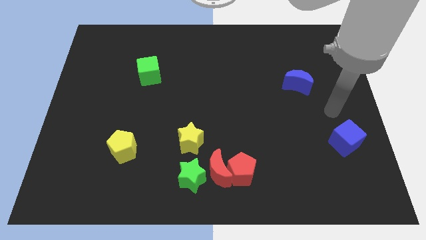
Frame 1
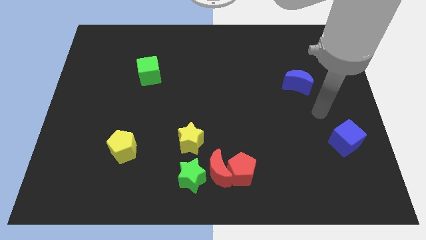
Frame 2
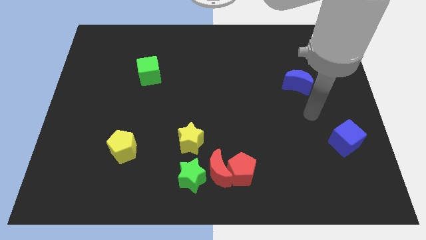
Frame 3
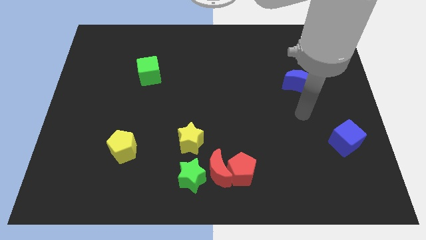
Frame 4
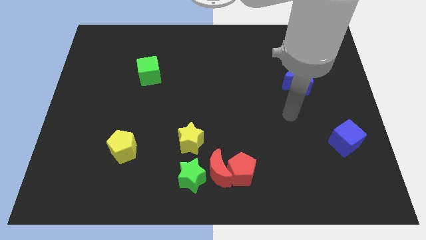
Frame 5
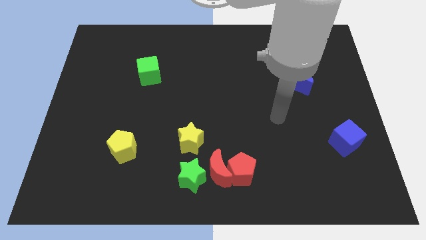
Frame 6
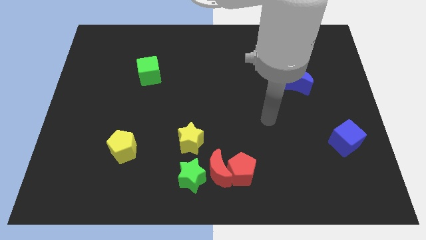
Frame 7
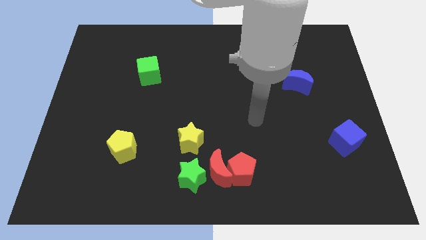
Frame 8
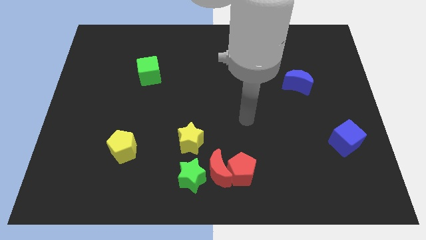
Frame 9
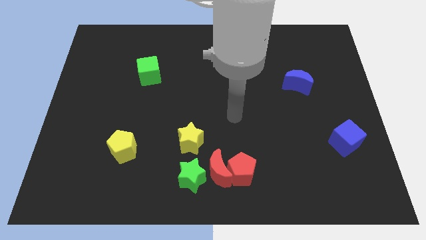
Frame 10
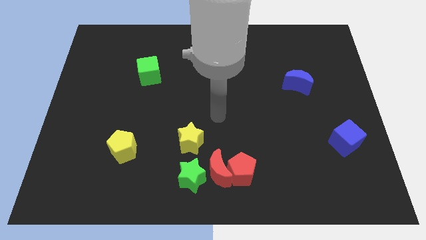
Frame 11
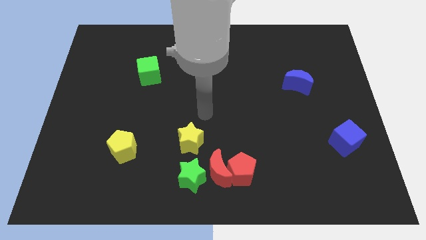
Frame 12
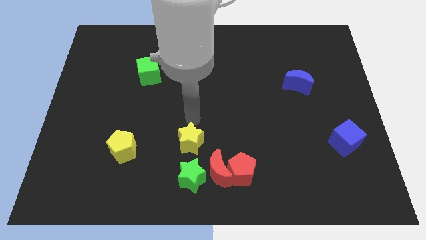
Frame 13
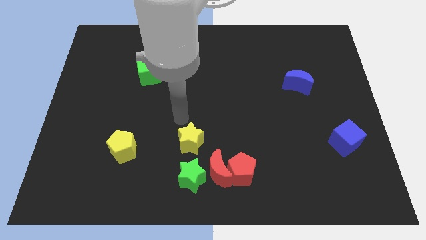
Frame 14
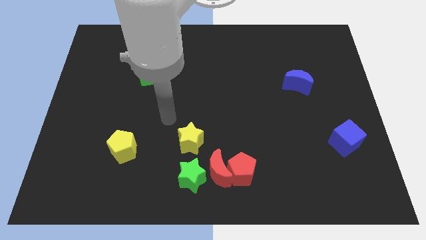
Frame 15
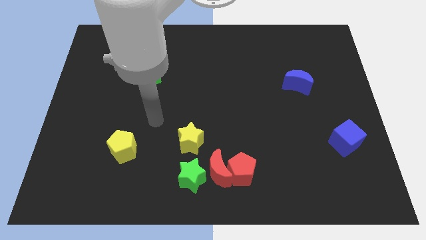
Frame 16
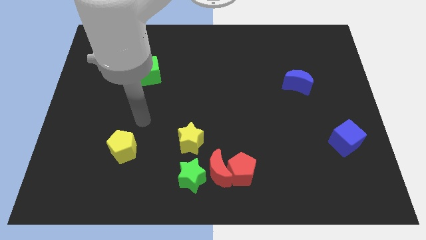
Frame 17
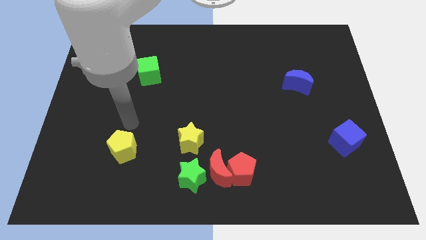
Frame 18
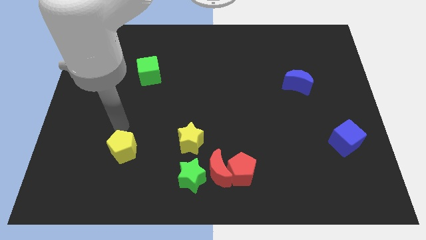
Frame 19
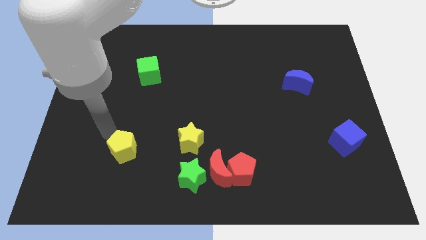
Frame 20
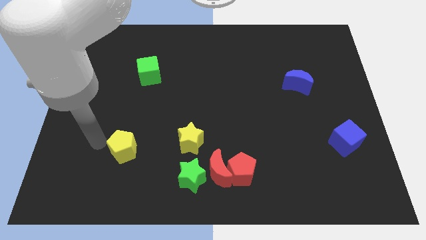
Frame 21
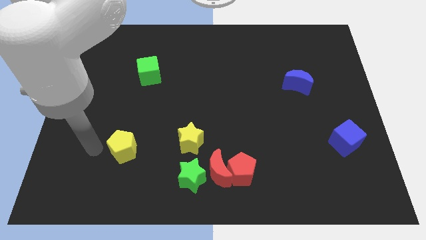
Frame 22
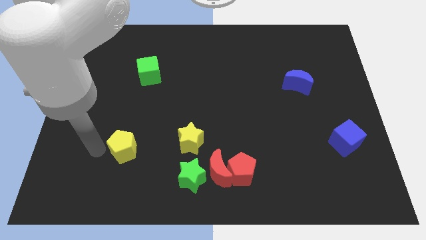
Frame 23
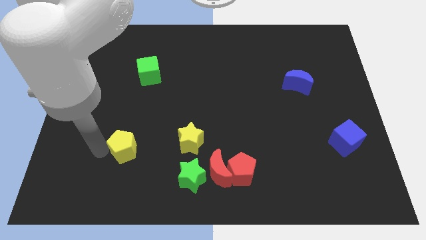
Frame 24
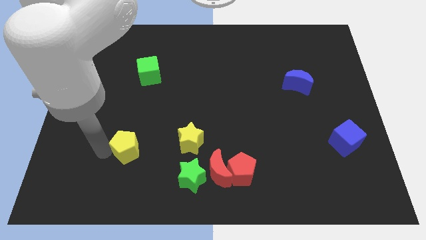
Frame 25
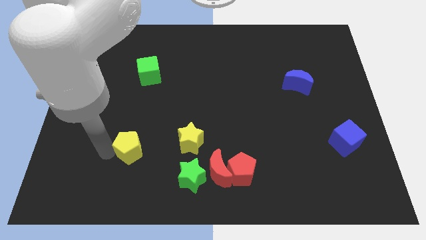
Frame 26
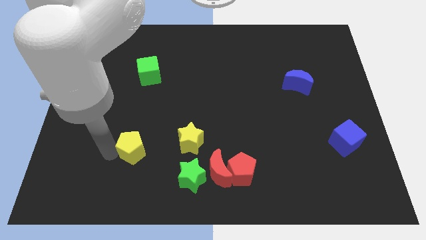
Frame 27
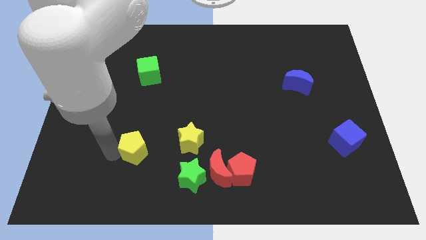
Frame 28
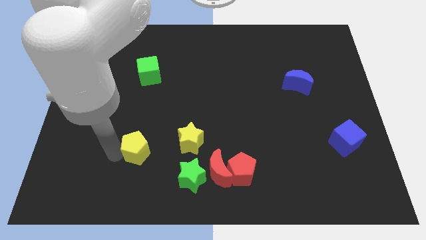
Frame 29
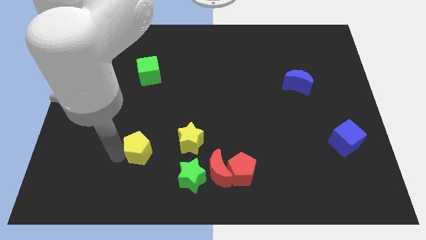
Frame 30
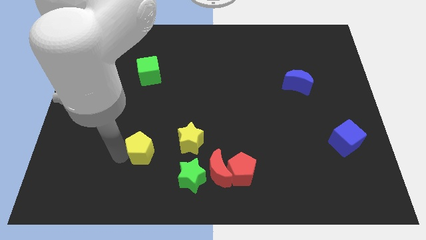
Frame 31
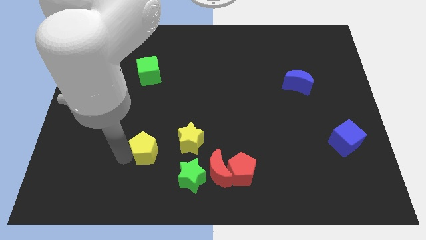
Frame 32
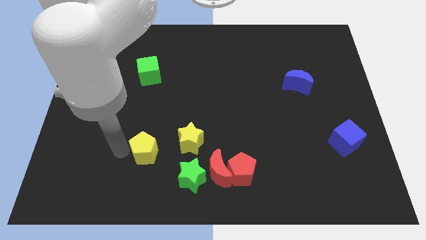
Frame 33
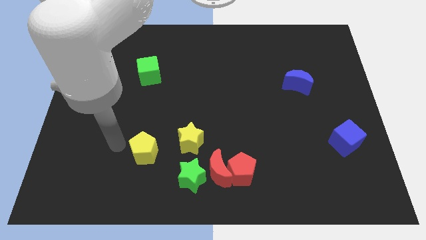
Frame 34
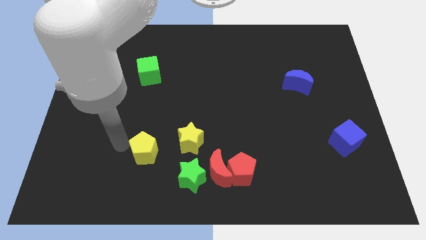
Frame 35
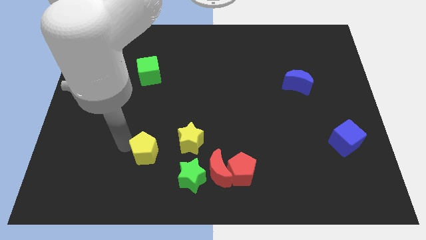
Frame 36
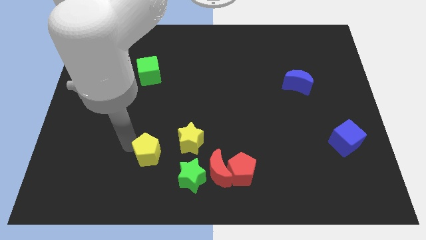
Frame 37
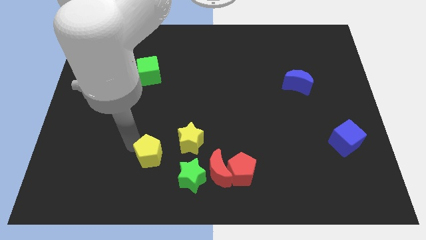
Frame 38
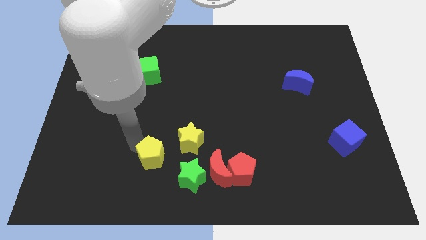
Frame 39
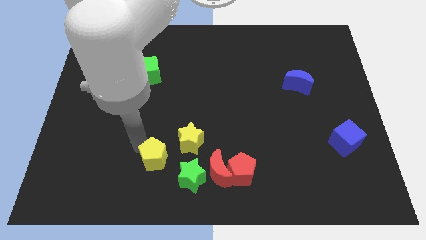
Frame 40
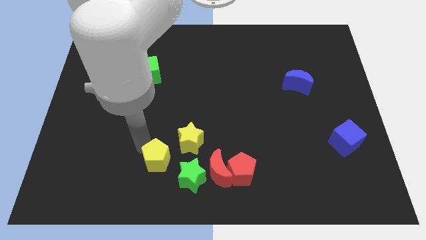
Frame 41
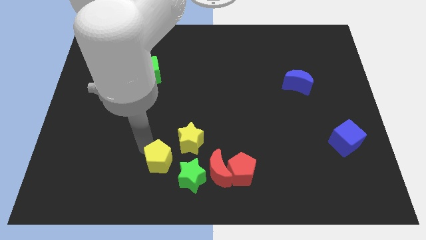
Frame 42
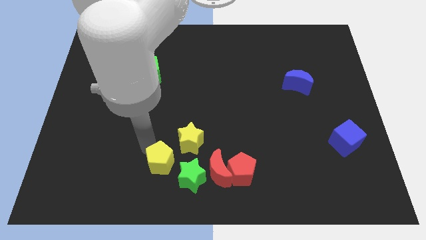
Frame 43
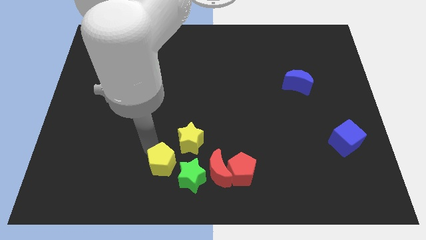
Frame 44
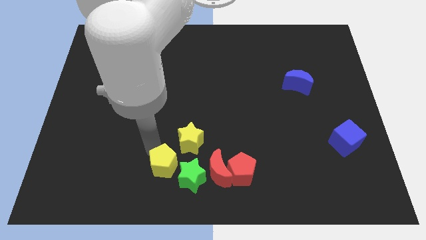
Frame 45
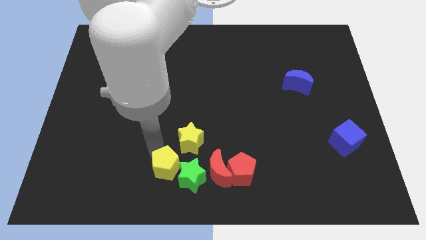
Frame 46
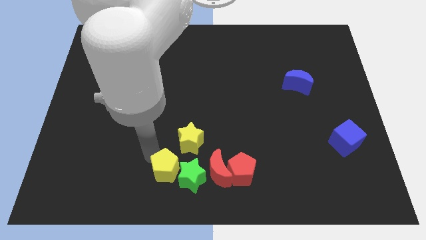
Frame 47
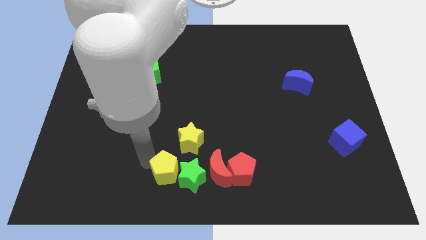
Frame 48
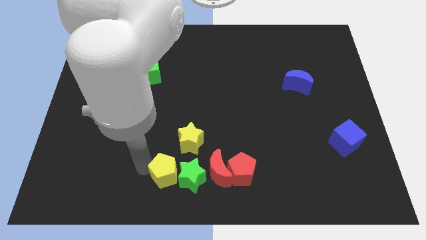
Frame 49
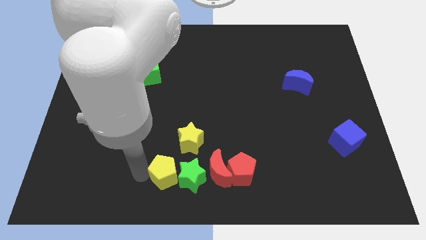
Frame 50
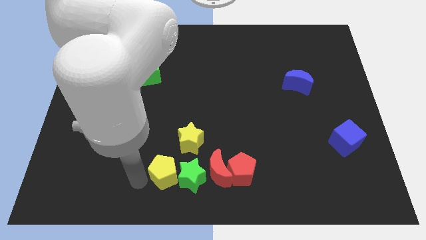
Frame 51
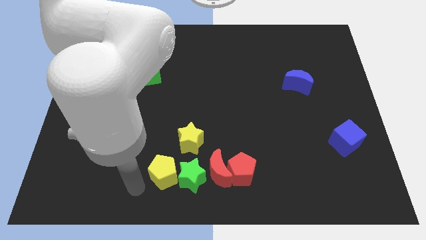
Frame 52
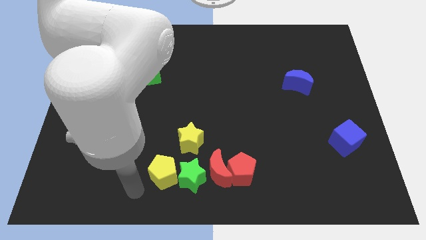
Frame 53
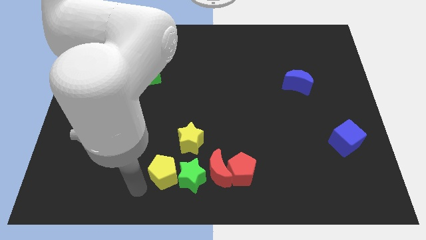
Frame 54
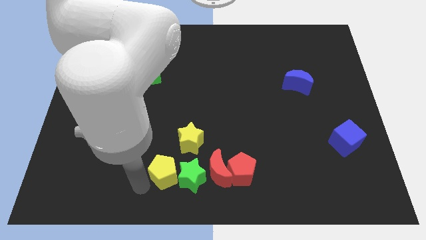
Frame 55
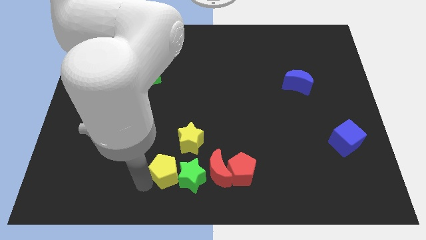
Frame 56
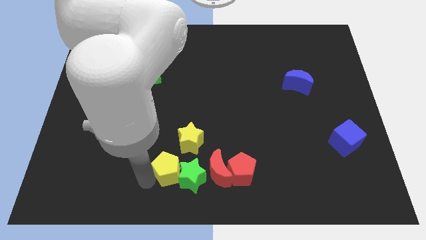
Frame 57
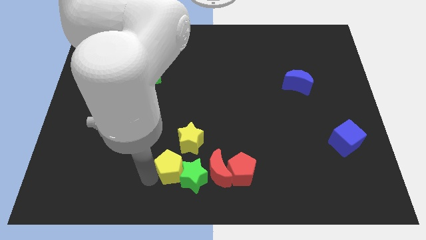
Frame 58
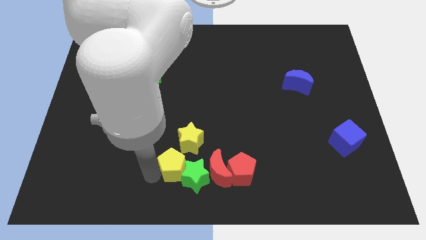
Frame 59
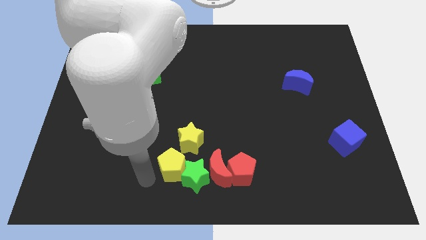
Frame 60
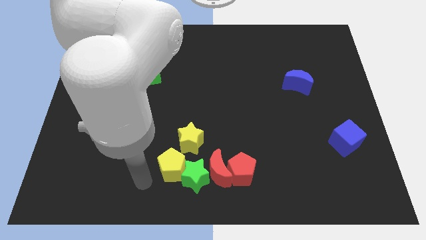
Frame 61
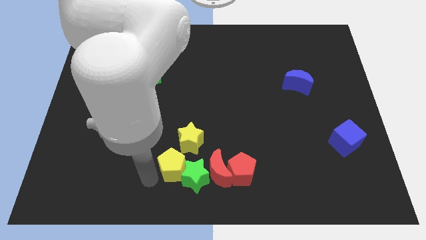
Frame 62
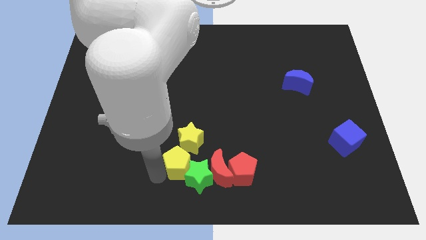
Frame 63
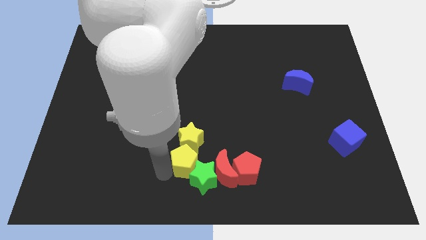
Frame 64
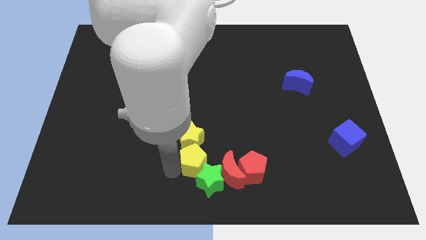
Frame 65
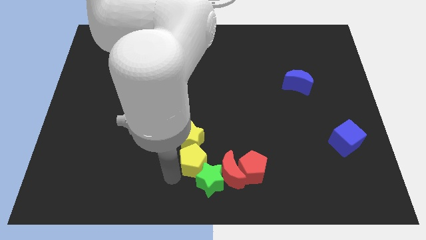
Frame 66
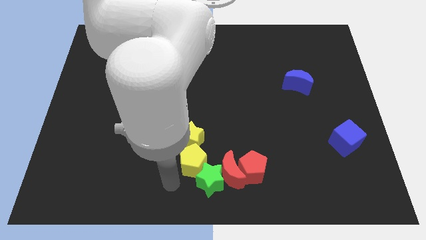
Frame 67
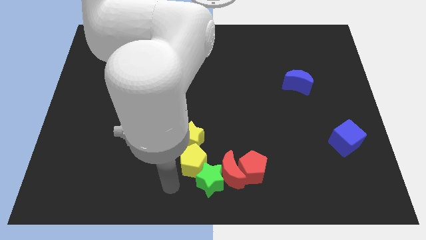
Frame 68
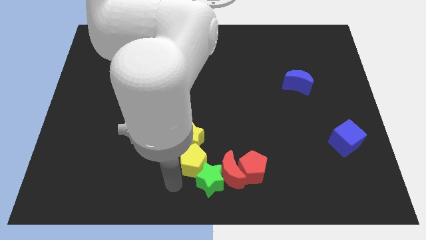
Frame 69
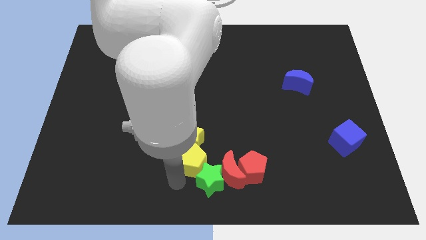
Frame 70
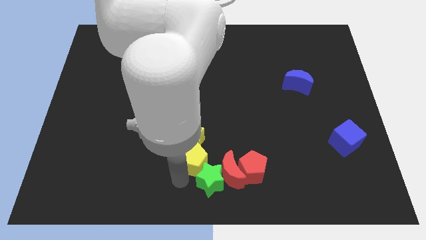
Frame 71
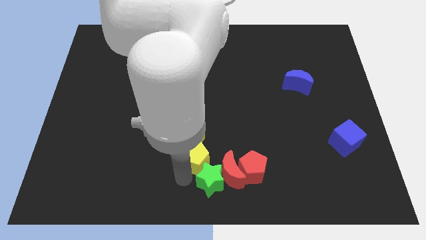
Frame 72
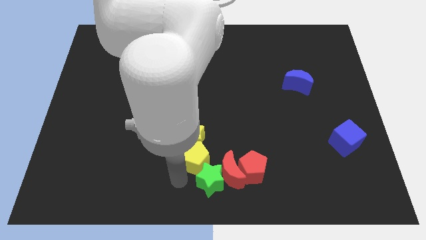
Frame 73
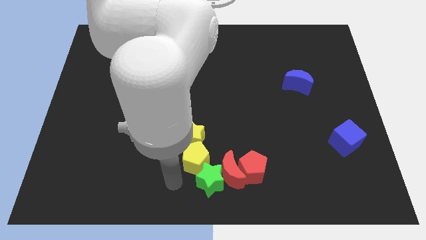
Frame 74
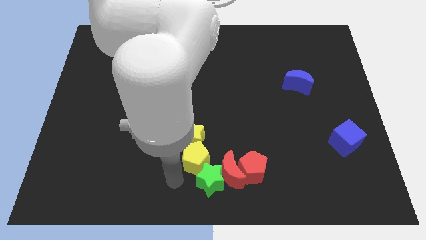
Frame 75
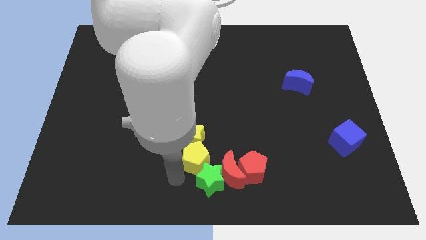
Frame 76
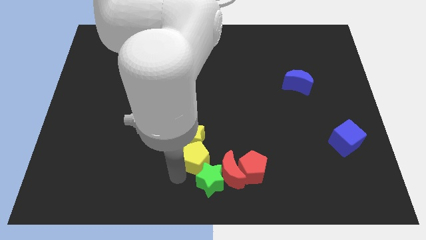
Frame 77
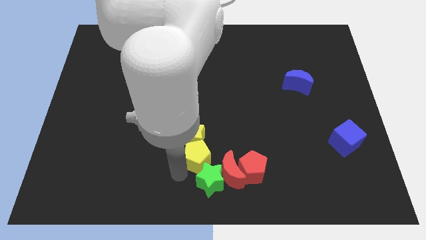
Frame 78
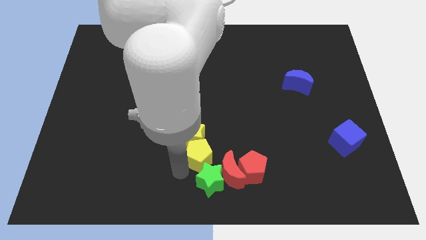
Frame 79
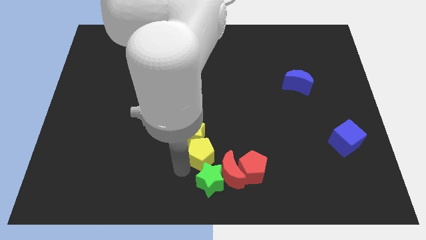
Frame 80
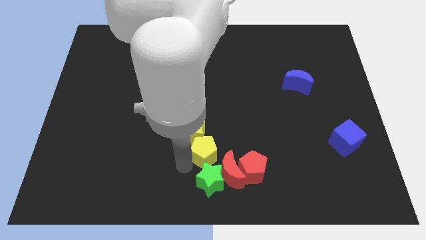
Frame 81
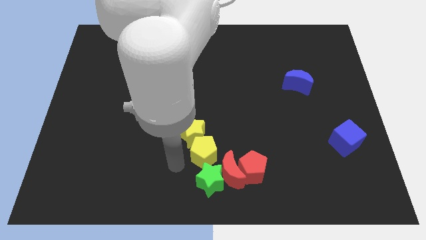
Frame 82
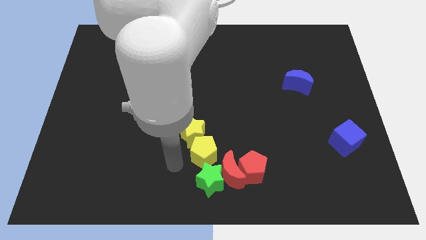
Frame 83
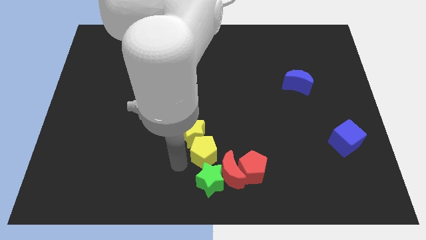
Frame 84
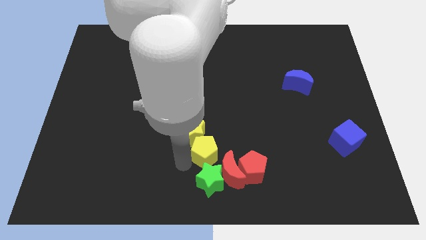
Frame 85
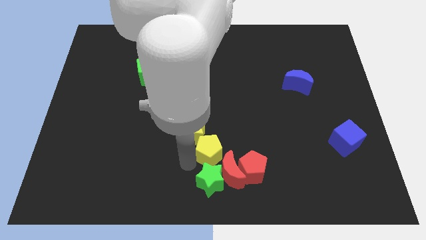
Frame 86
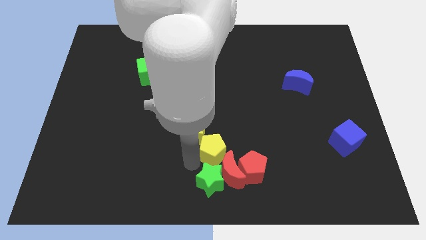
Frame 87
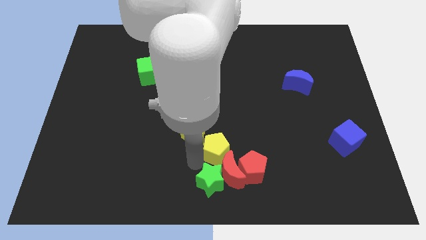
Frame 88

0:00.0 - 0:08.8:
slide the yellow pentagon to the right
